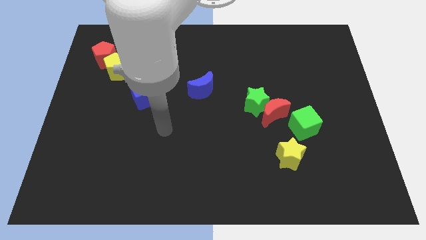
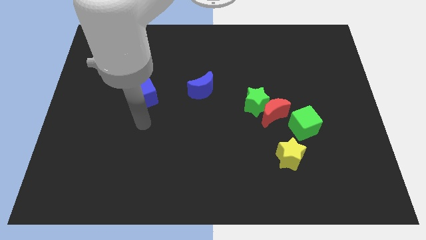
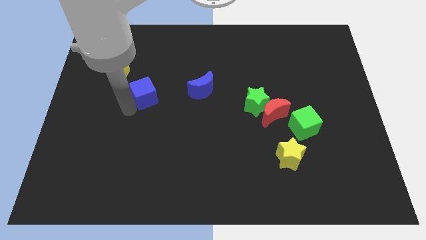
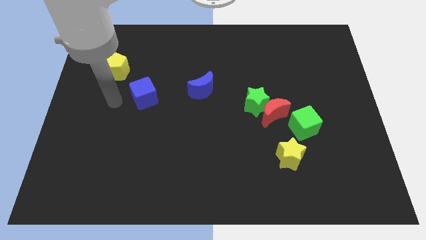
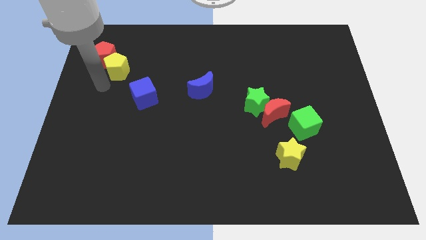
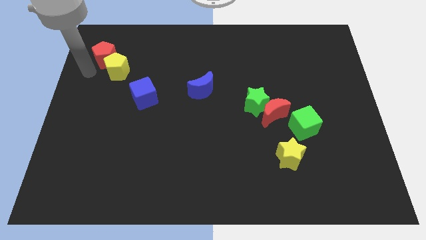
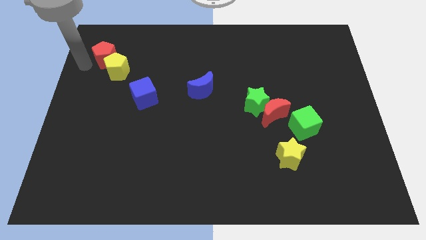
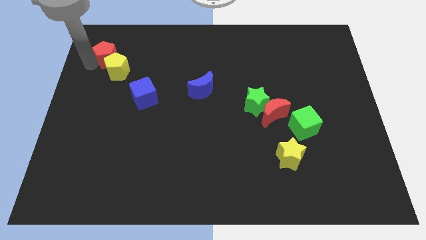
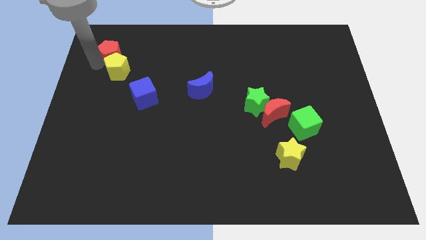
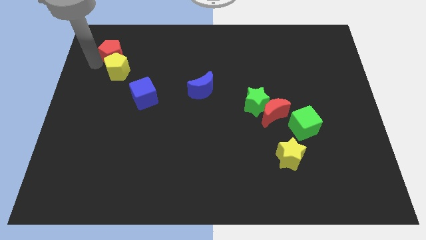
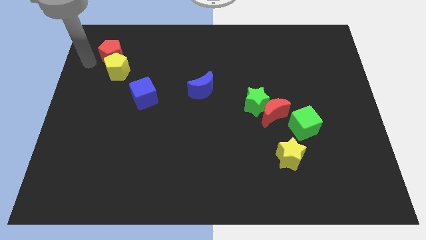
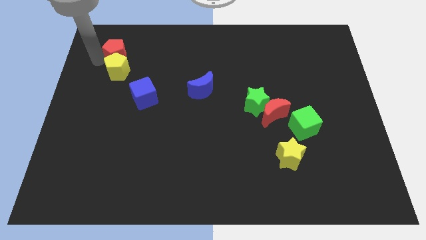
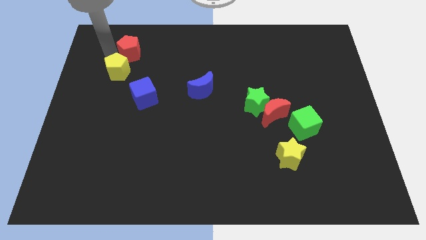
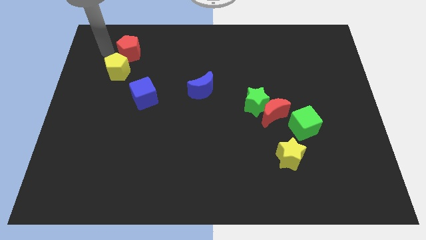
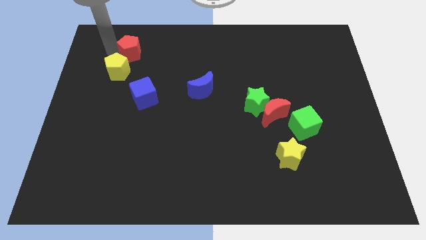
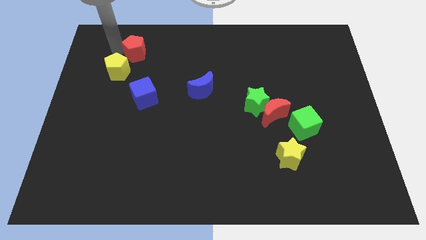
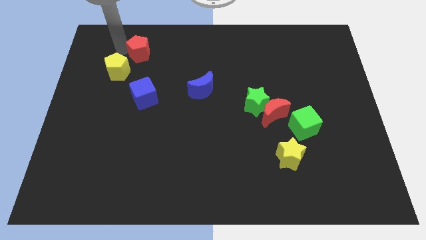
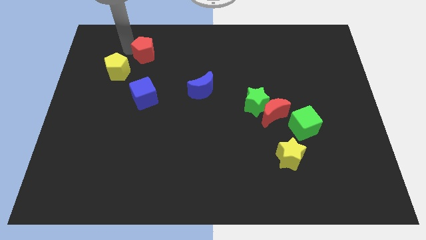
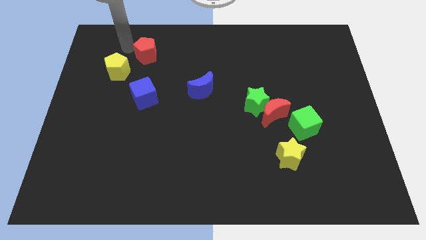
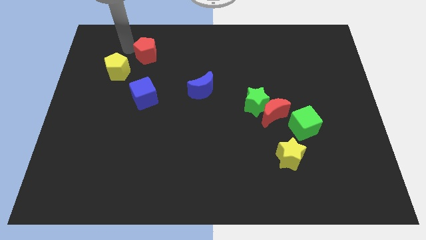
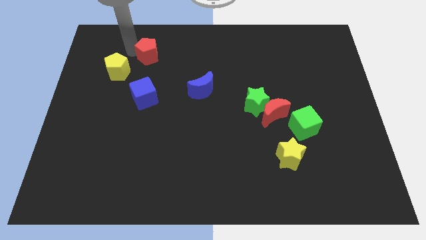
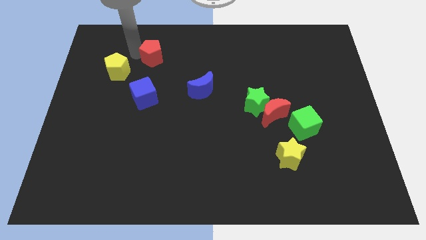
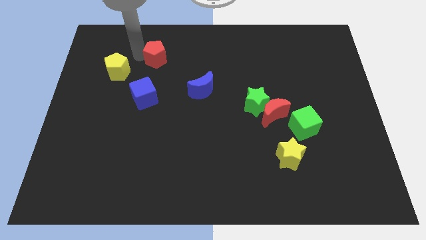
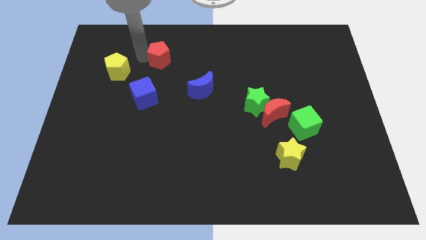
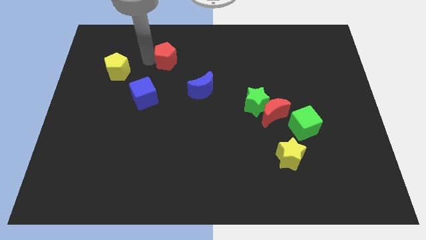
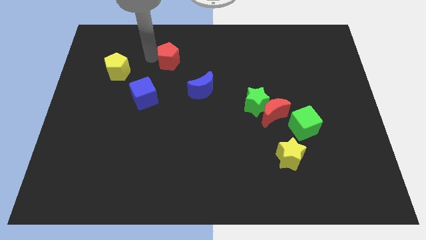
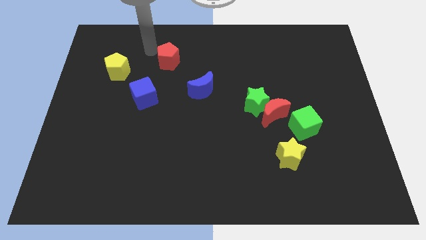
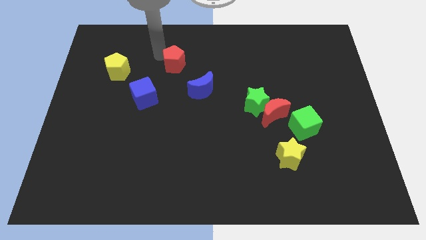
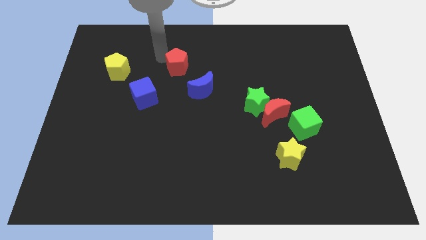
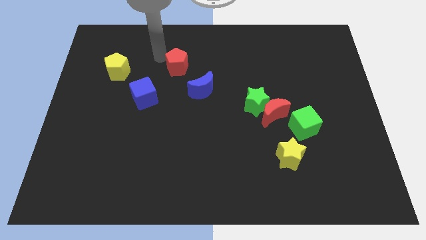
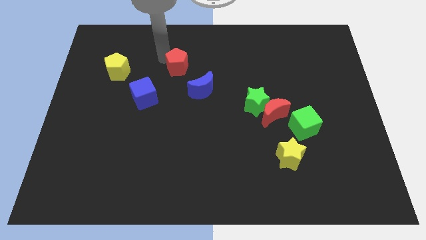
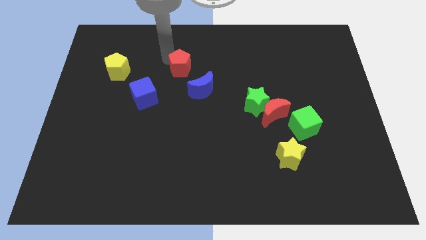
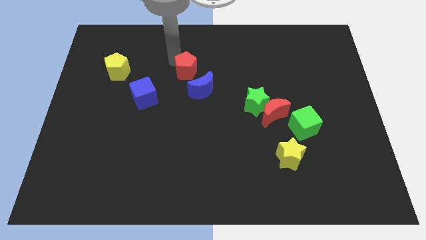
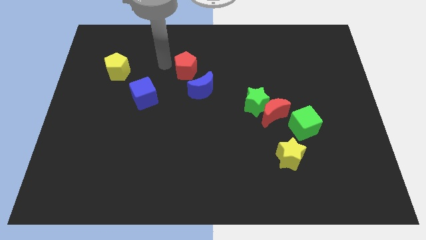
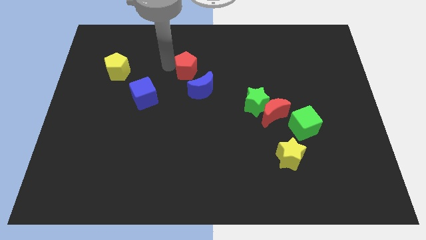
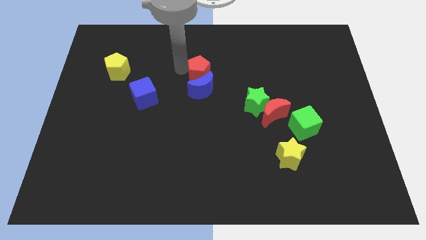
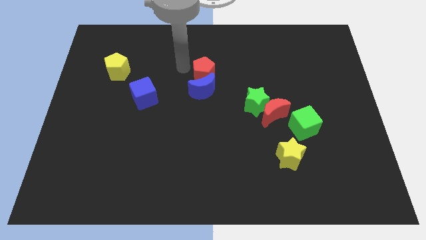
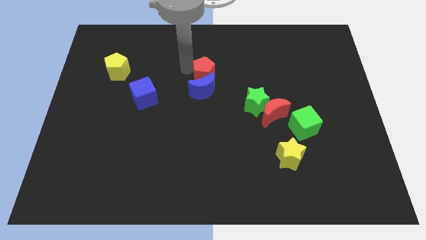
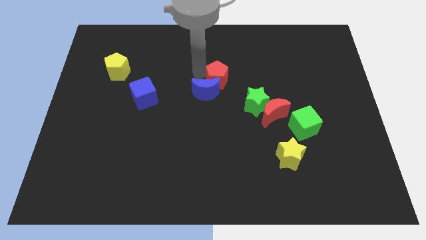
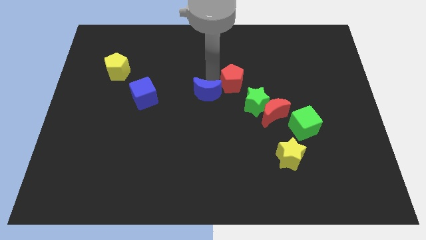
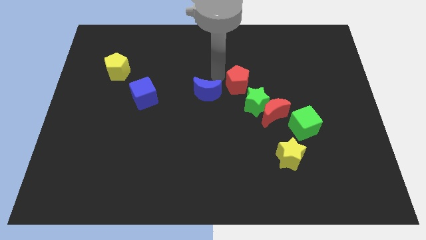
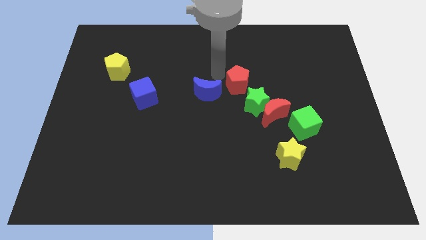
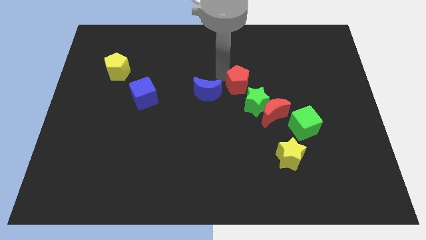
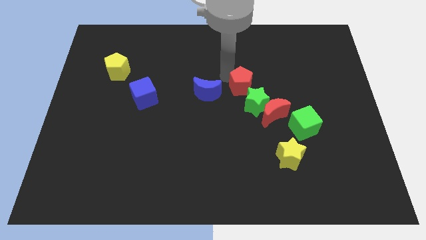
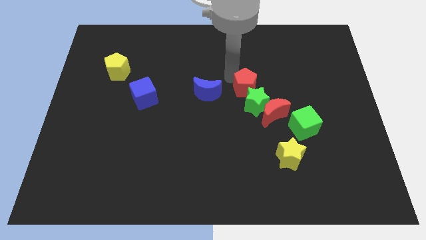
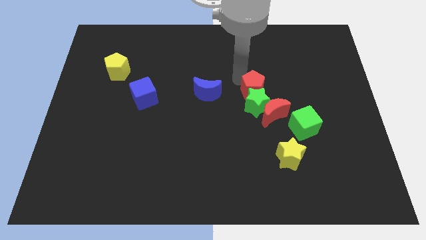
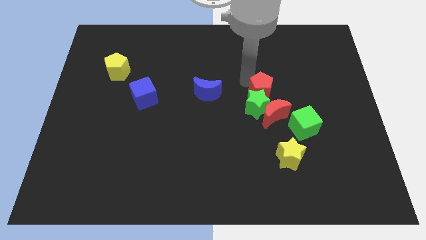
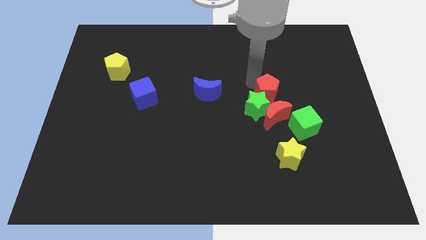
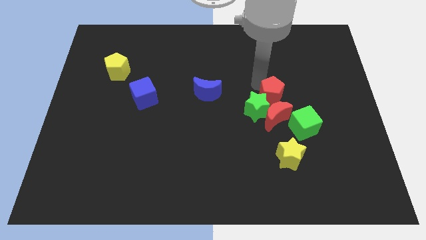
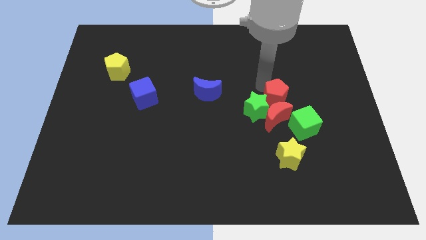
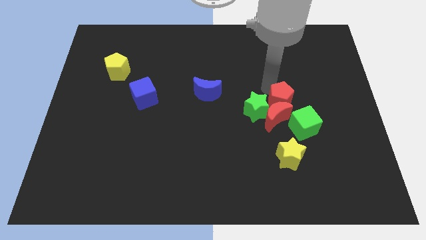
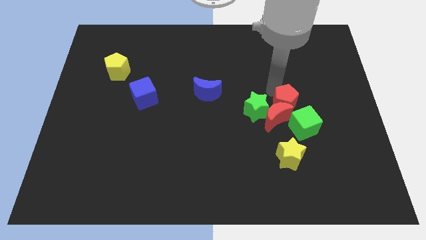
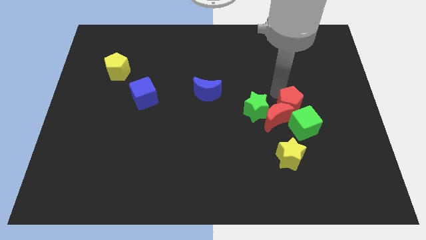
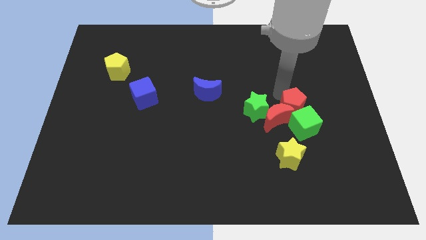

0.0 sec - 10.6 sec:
push the red pentagon towards the green cube

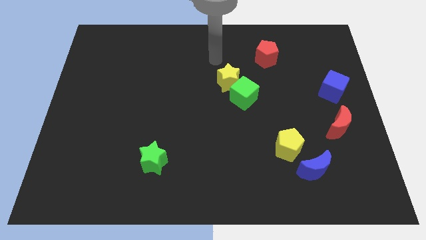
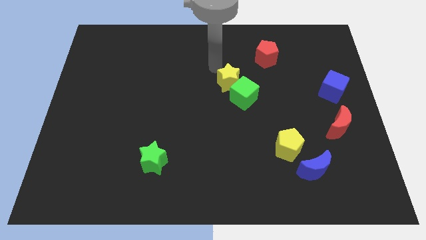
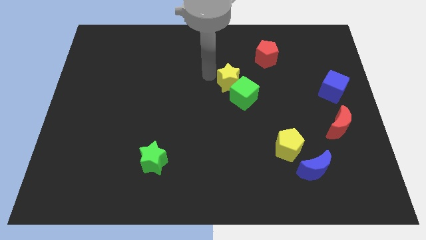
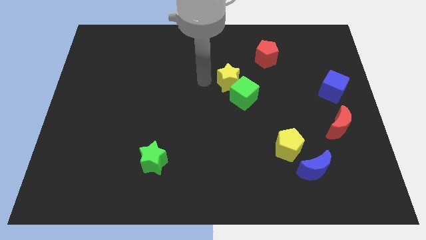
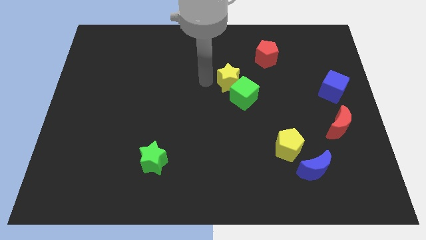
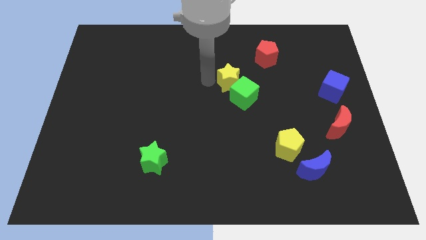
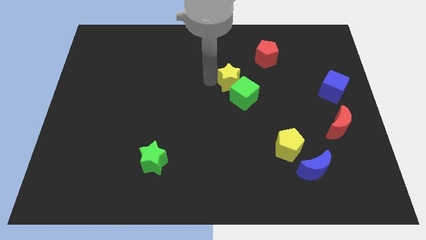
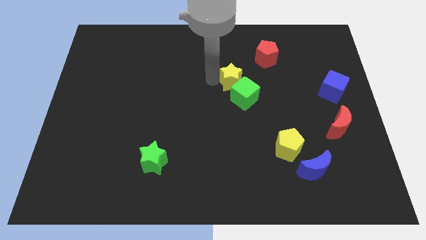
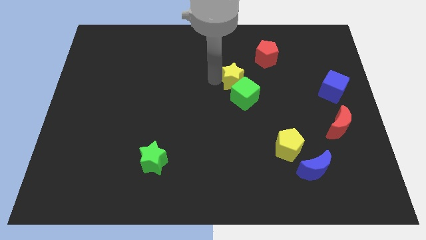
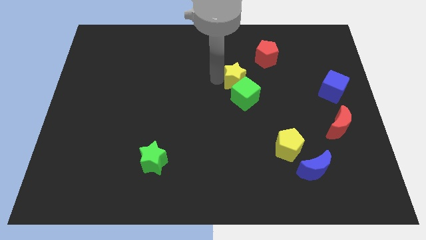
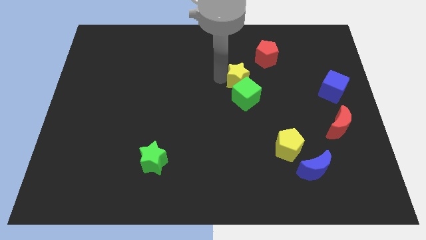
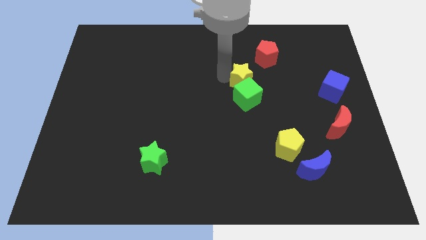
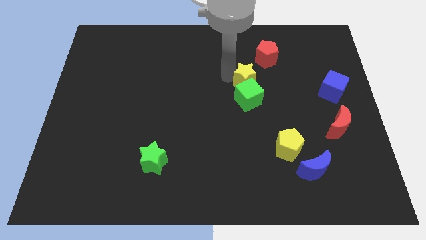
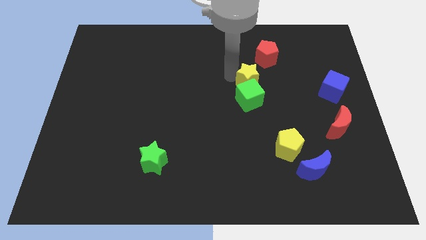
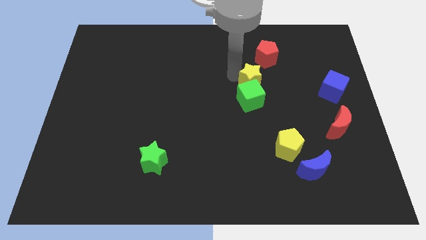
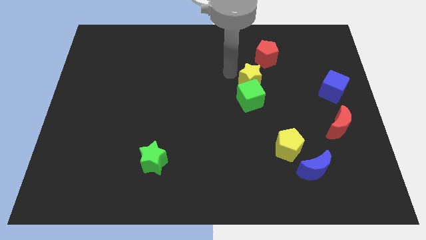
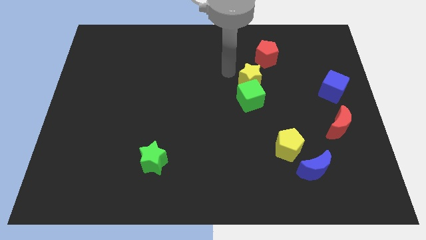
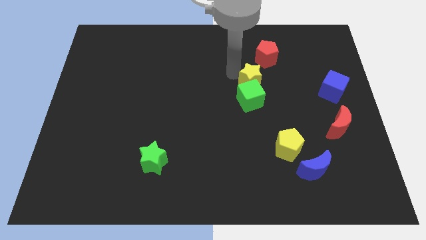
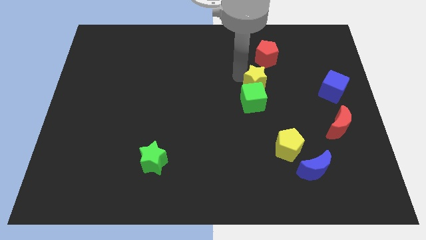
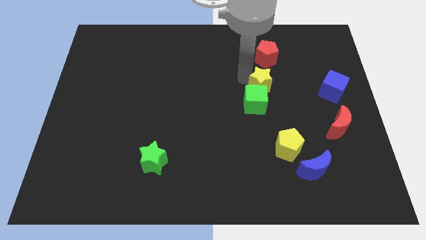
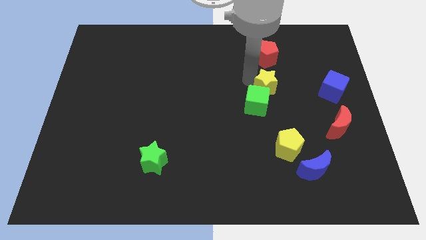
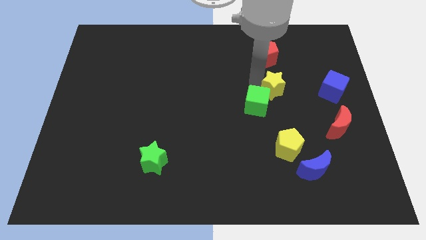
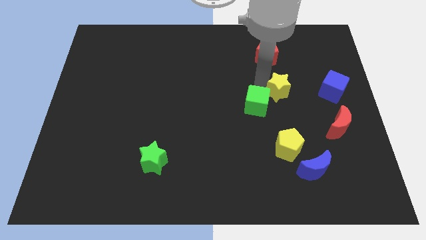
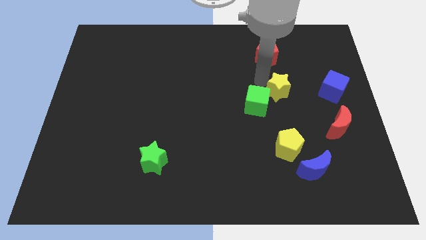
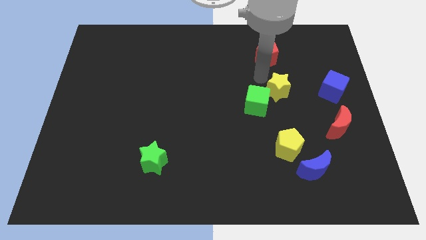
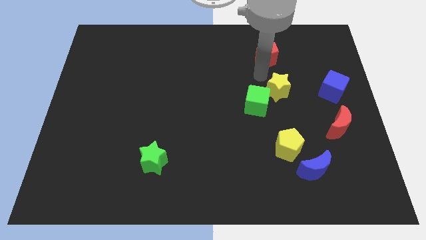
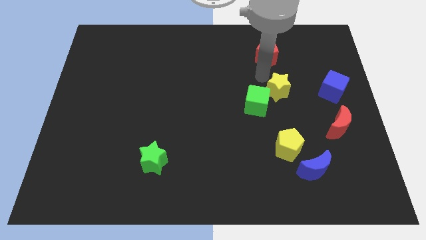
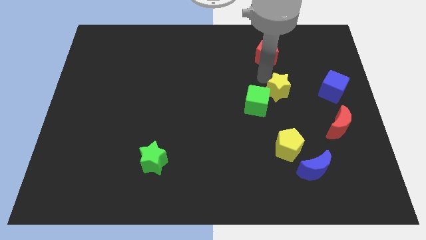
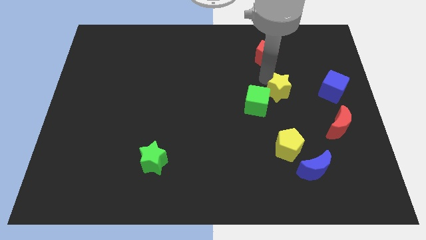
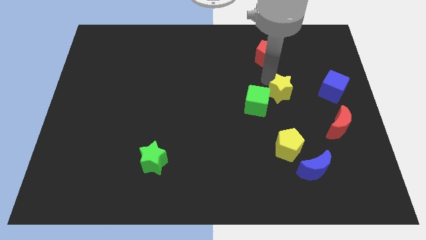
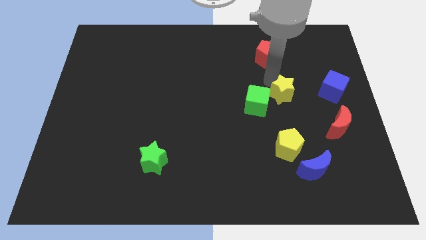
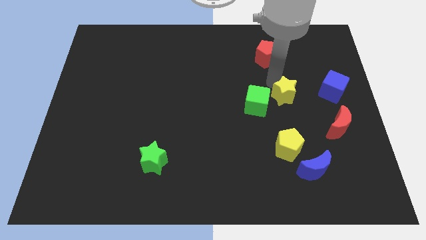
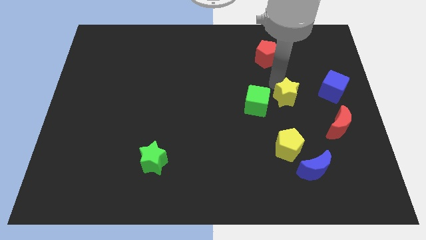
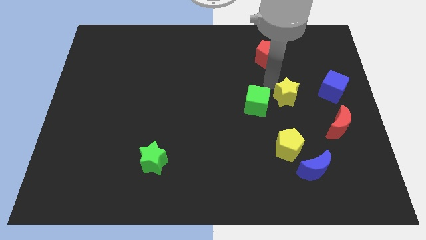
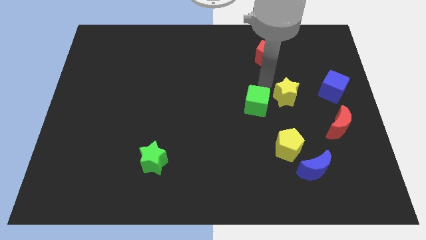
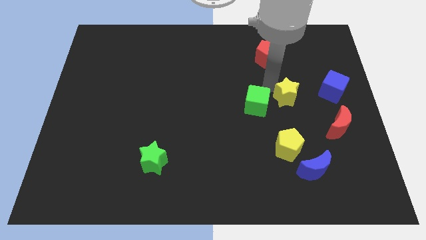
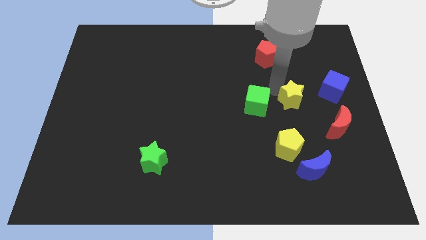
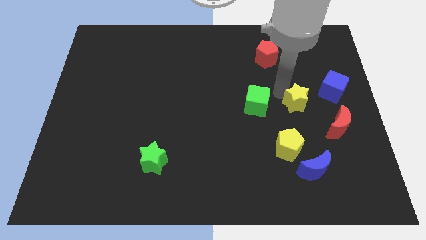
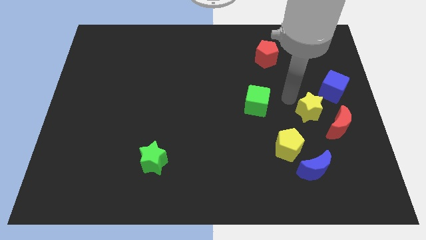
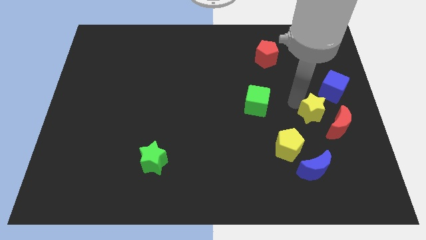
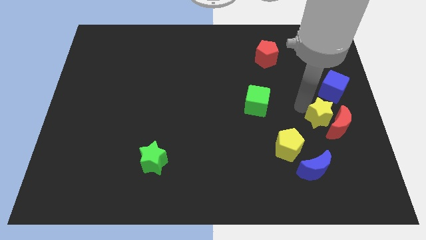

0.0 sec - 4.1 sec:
move the yellow star close to the red moon
